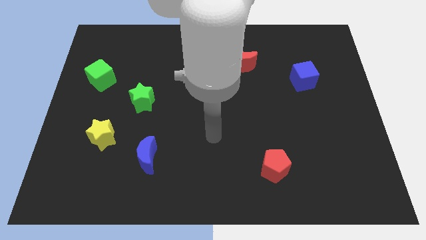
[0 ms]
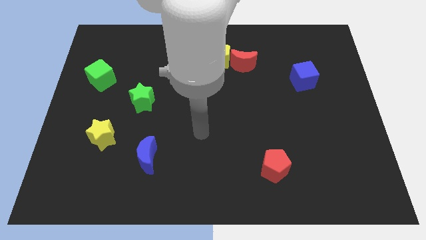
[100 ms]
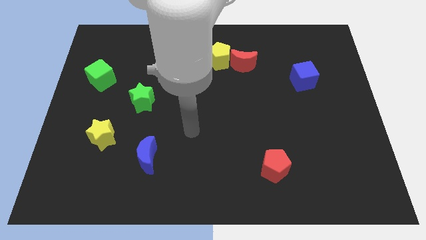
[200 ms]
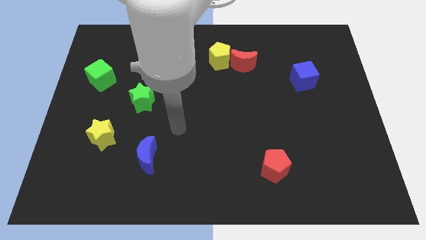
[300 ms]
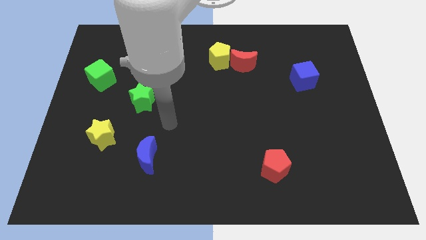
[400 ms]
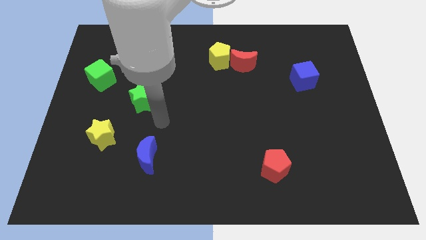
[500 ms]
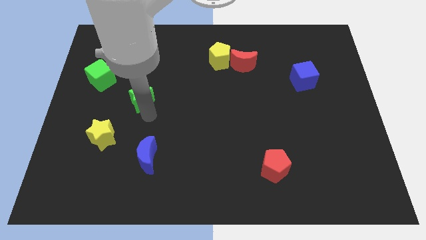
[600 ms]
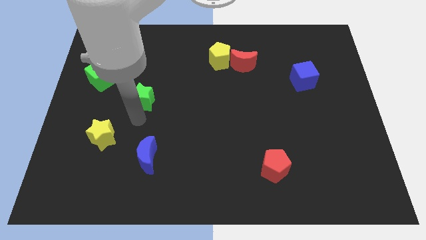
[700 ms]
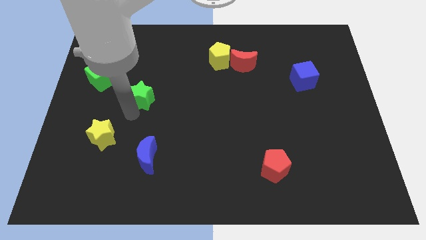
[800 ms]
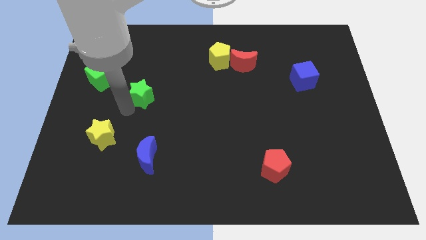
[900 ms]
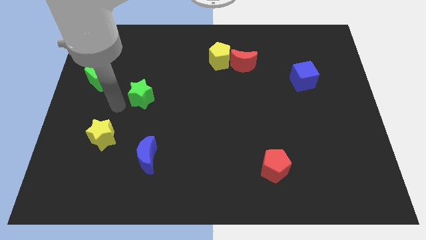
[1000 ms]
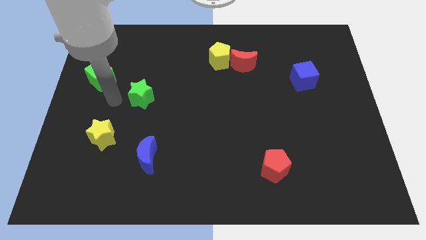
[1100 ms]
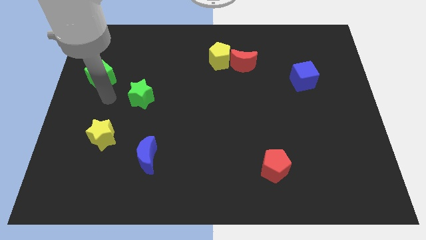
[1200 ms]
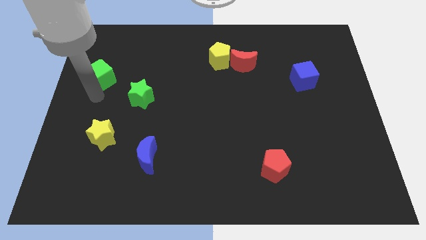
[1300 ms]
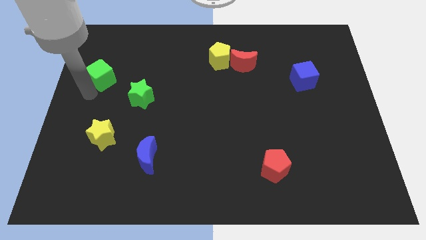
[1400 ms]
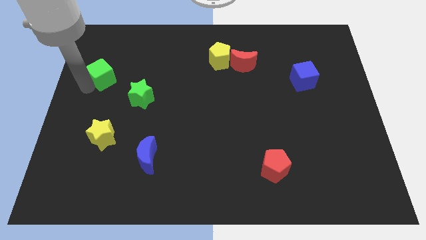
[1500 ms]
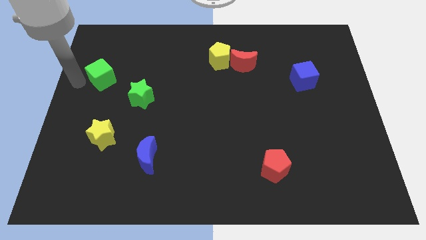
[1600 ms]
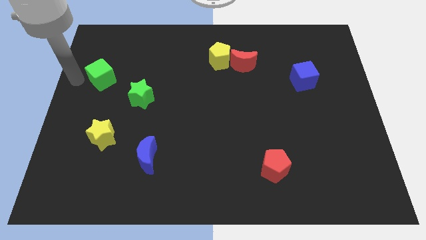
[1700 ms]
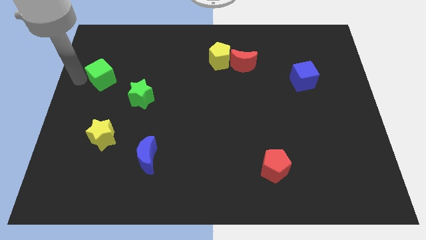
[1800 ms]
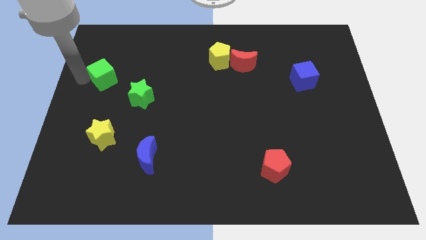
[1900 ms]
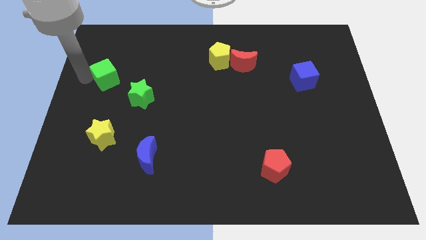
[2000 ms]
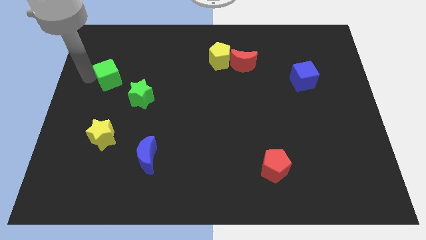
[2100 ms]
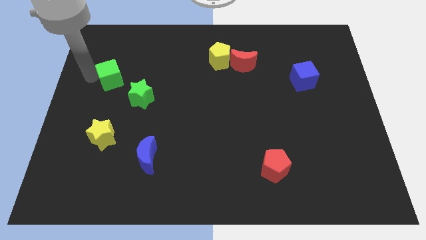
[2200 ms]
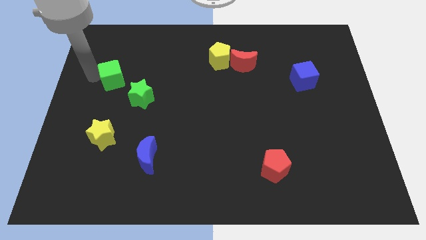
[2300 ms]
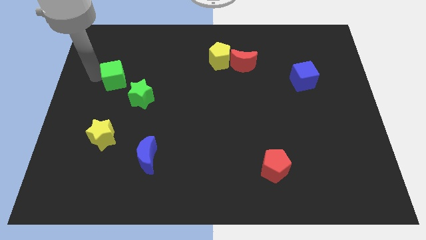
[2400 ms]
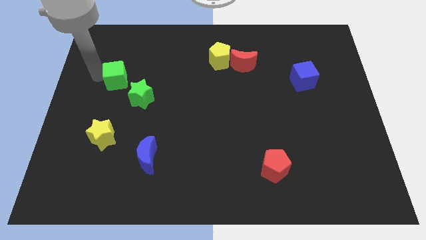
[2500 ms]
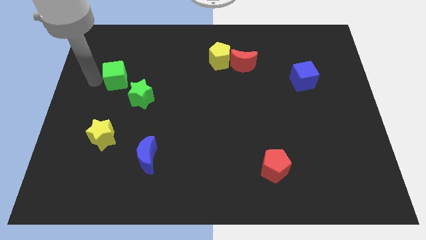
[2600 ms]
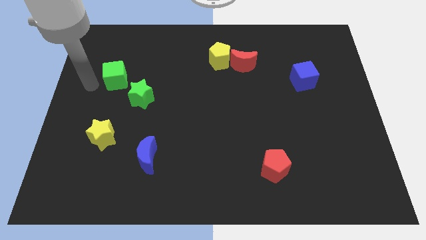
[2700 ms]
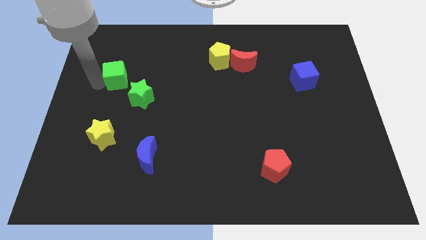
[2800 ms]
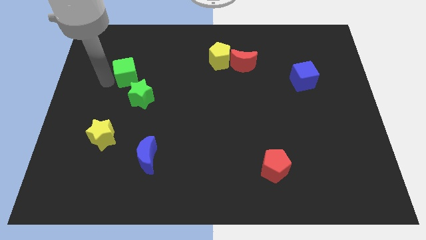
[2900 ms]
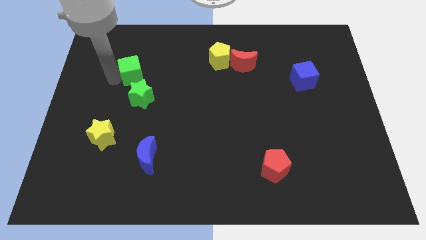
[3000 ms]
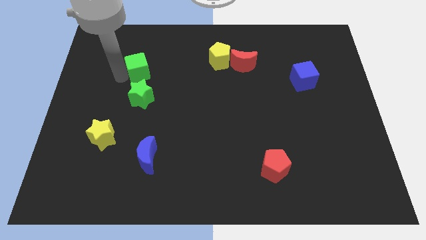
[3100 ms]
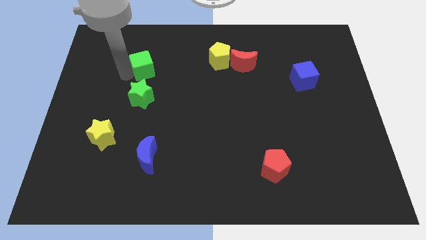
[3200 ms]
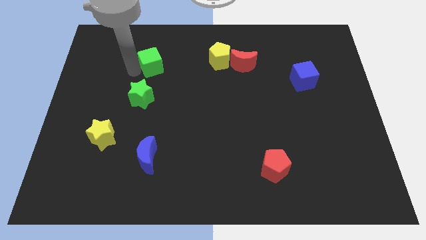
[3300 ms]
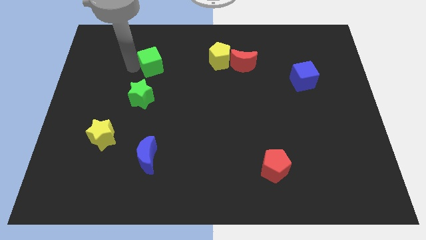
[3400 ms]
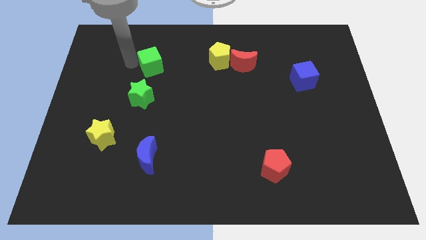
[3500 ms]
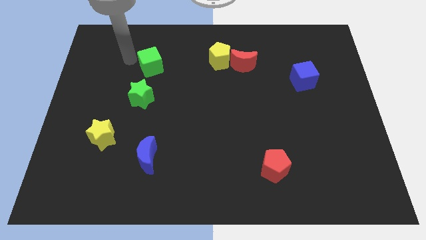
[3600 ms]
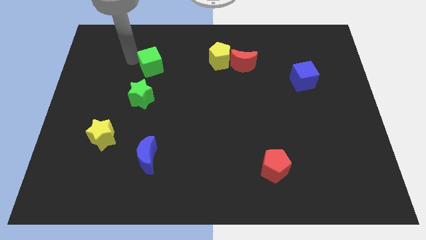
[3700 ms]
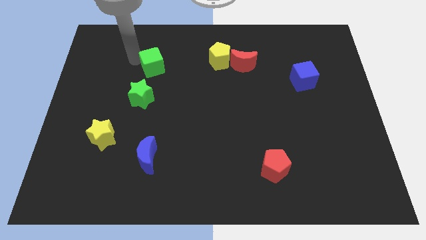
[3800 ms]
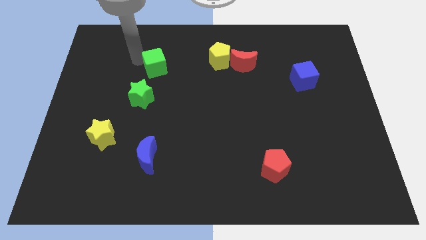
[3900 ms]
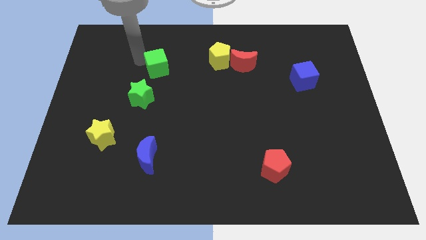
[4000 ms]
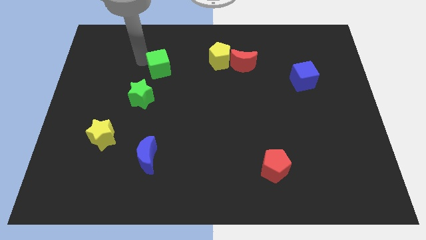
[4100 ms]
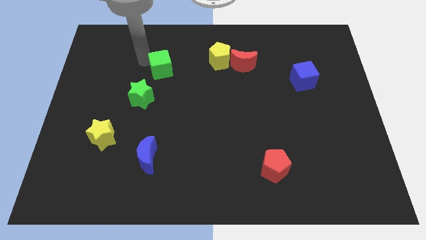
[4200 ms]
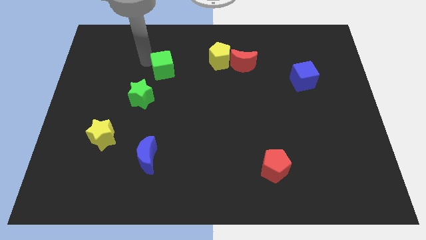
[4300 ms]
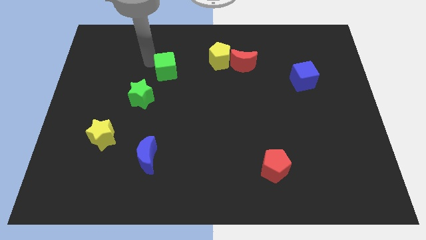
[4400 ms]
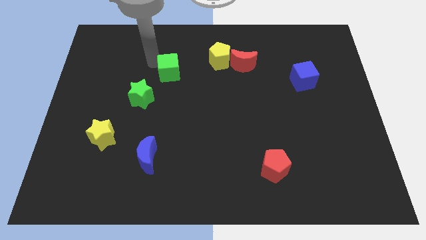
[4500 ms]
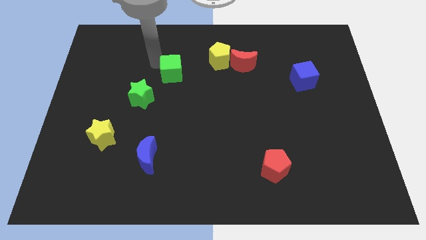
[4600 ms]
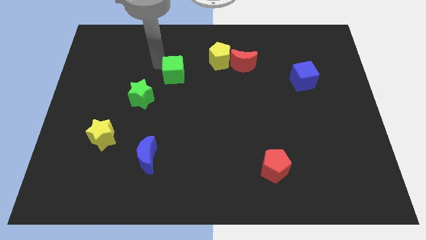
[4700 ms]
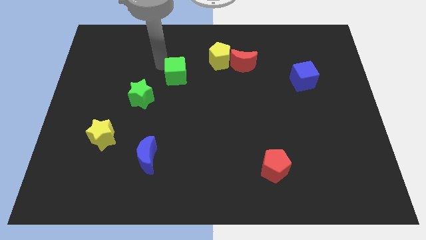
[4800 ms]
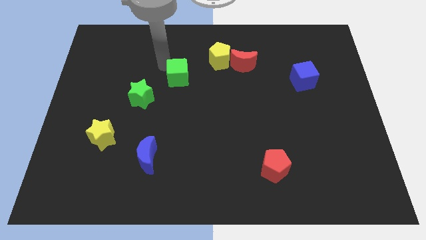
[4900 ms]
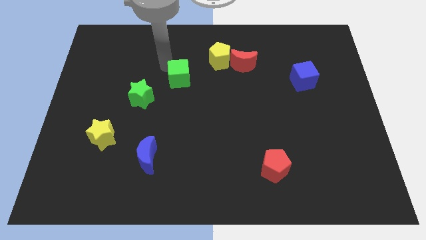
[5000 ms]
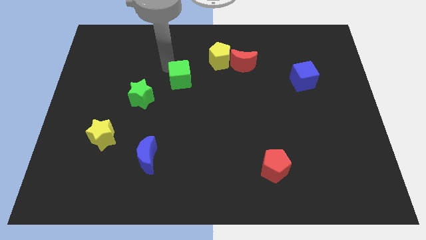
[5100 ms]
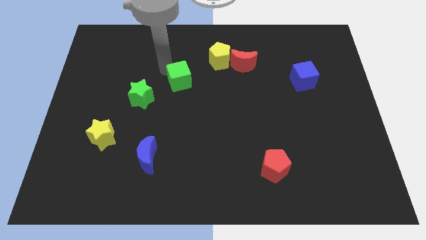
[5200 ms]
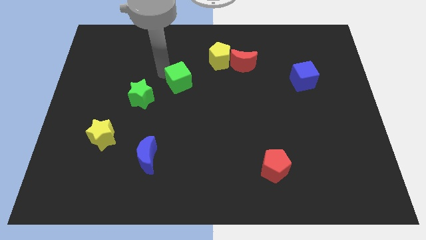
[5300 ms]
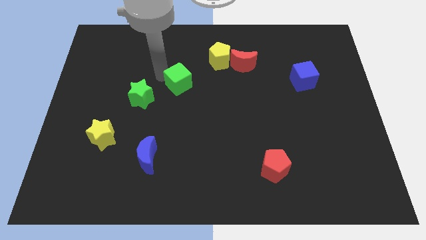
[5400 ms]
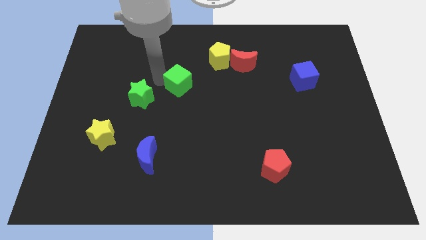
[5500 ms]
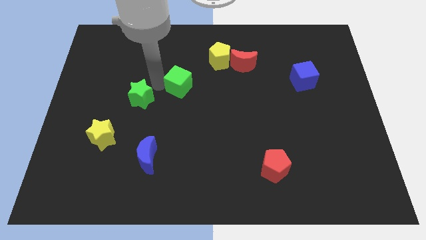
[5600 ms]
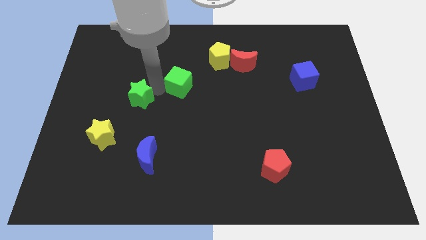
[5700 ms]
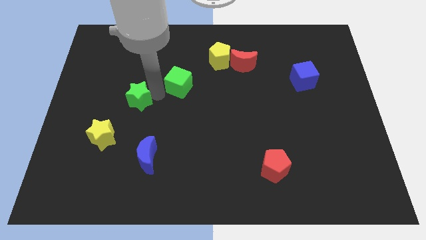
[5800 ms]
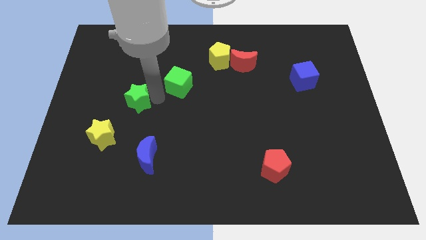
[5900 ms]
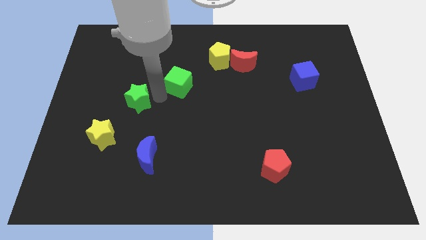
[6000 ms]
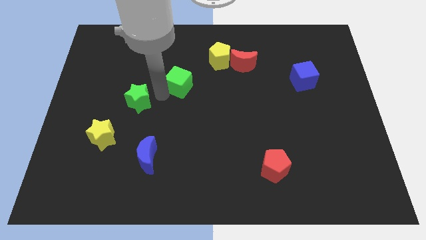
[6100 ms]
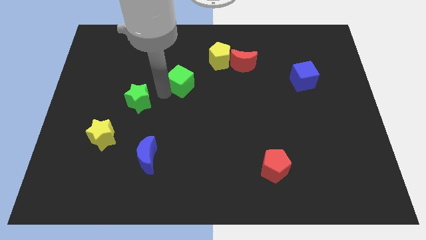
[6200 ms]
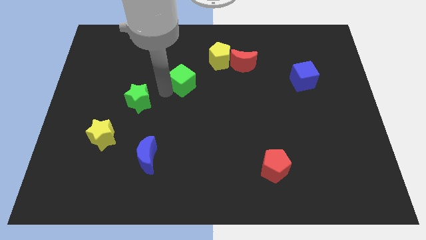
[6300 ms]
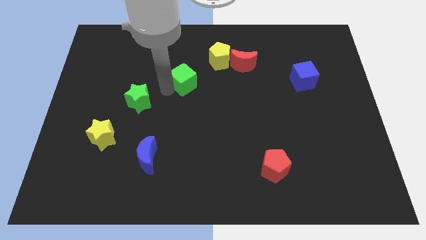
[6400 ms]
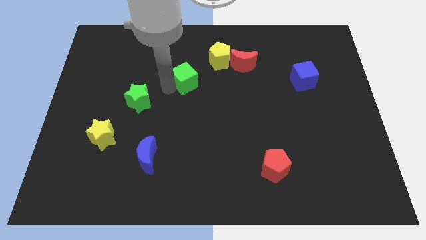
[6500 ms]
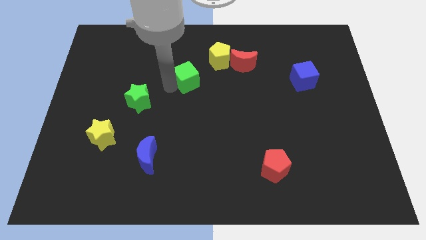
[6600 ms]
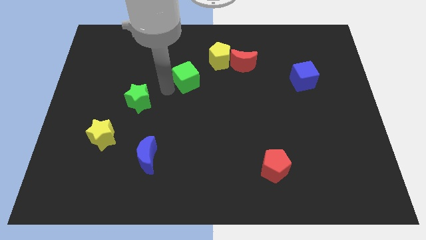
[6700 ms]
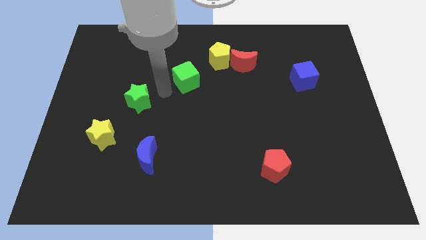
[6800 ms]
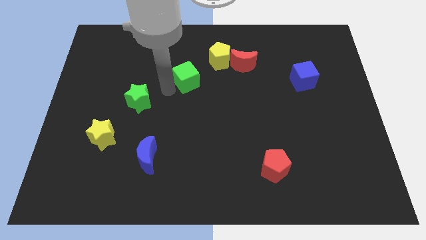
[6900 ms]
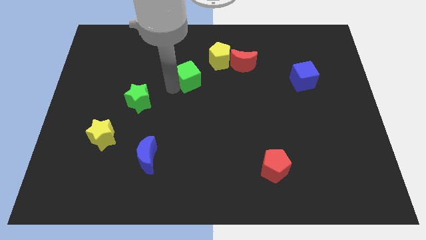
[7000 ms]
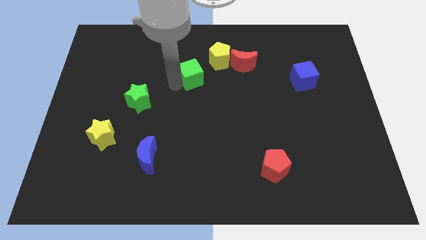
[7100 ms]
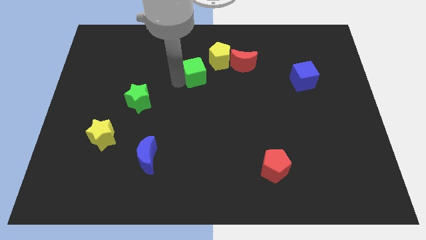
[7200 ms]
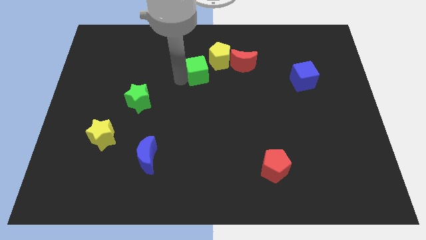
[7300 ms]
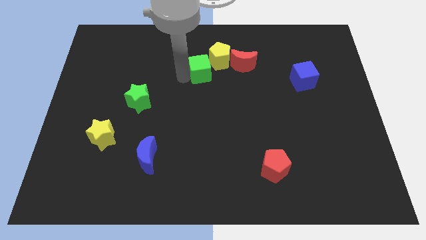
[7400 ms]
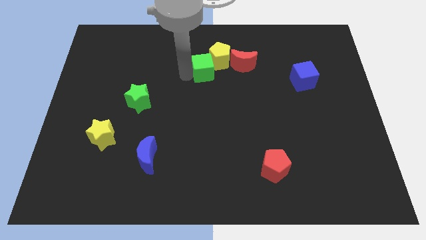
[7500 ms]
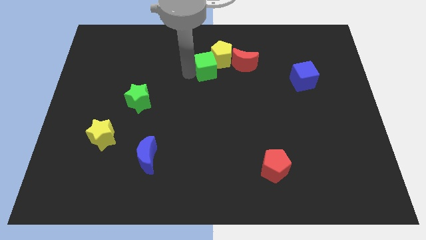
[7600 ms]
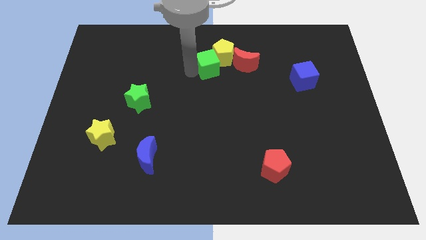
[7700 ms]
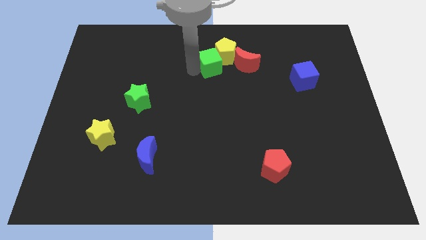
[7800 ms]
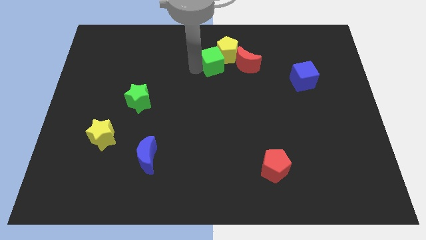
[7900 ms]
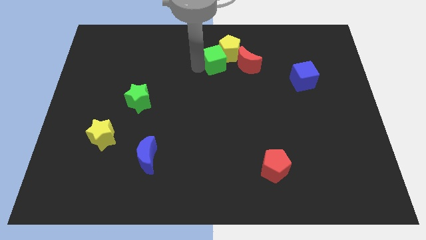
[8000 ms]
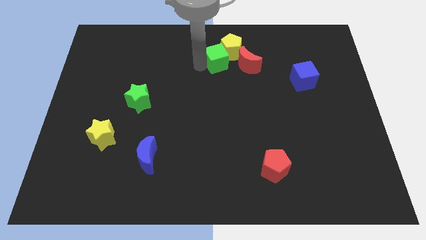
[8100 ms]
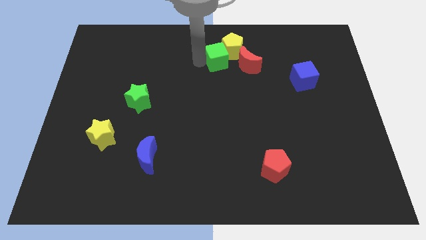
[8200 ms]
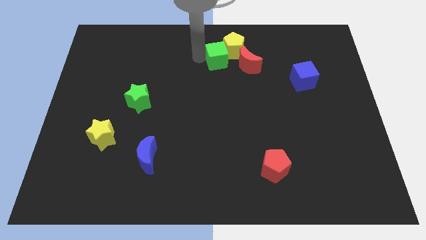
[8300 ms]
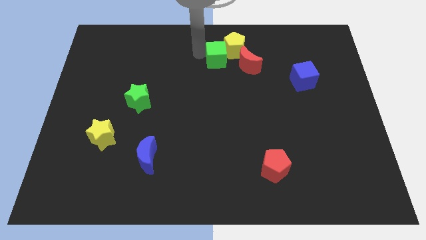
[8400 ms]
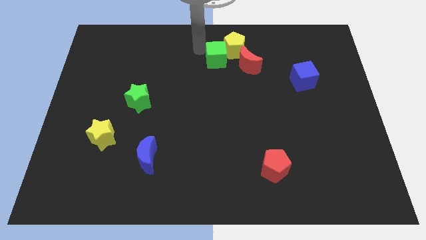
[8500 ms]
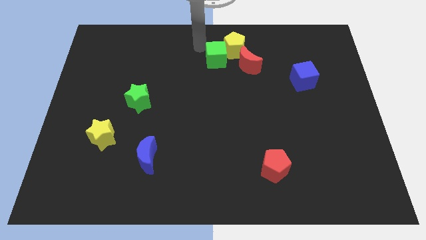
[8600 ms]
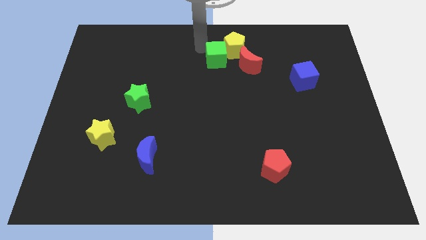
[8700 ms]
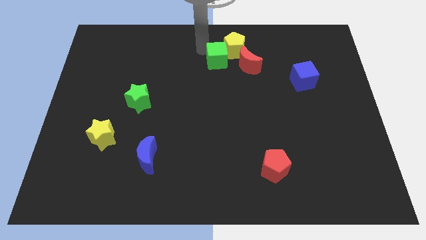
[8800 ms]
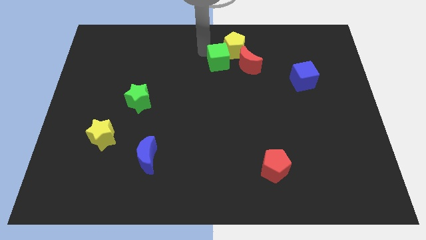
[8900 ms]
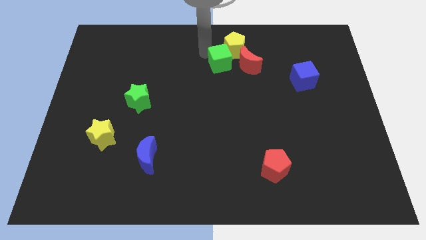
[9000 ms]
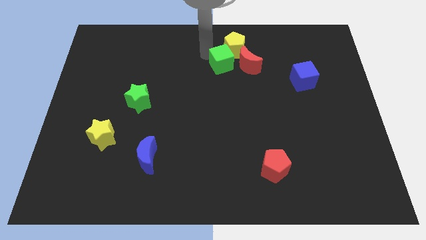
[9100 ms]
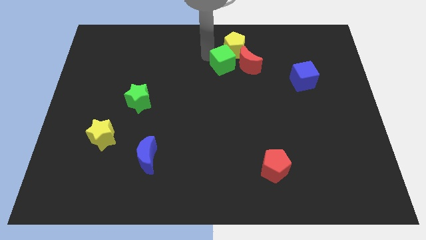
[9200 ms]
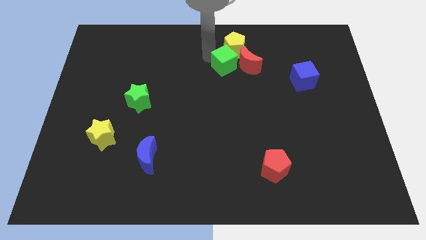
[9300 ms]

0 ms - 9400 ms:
put the green cube towards the red moon
